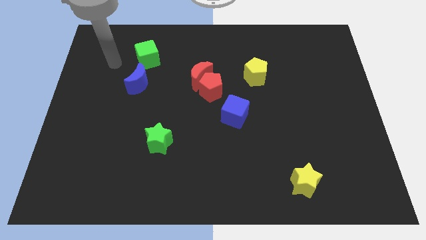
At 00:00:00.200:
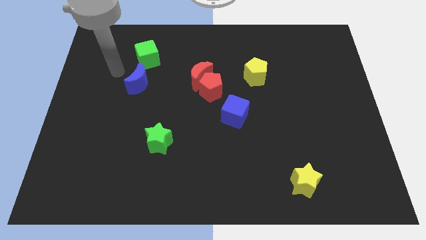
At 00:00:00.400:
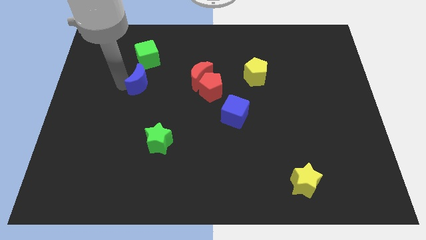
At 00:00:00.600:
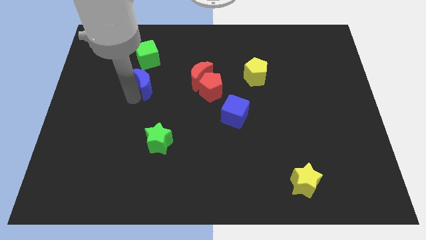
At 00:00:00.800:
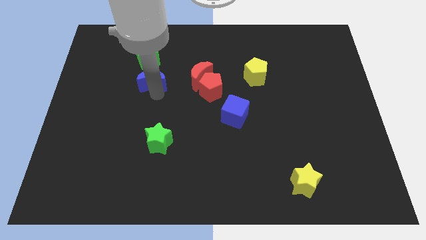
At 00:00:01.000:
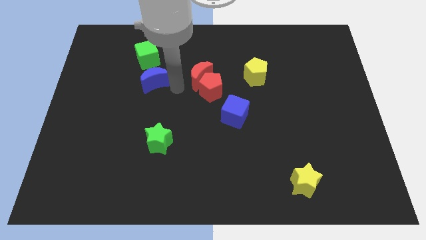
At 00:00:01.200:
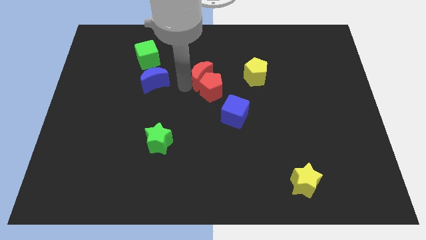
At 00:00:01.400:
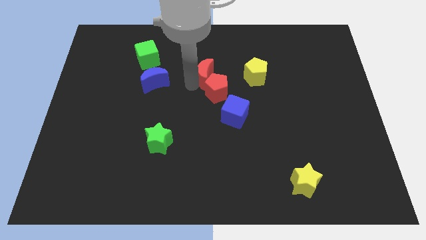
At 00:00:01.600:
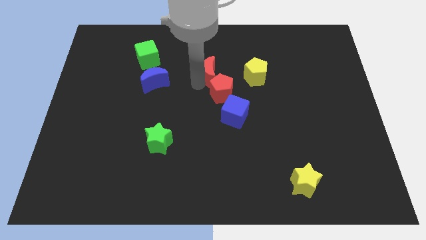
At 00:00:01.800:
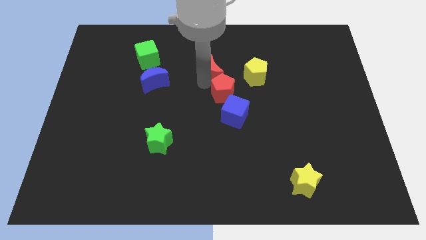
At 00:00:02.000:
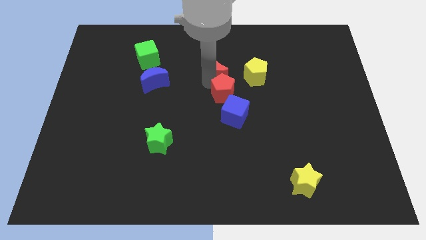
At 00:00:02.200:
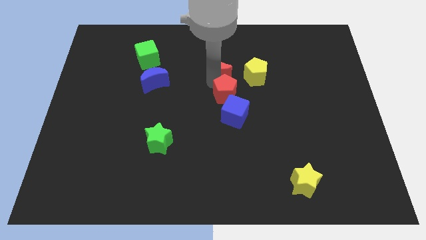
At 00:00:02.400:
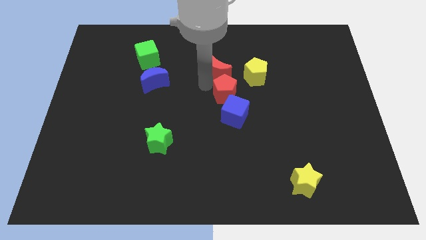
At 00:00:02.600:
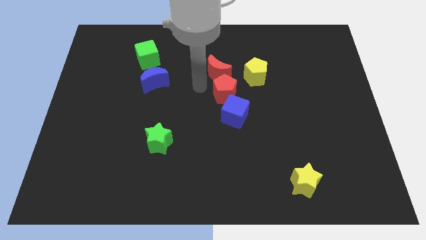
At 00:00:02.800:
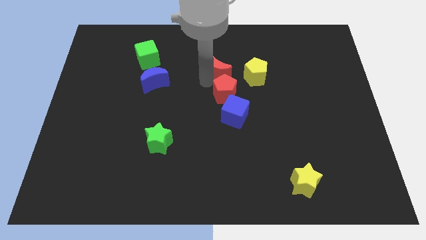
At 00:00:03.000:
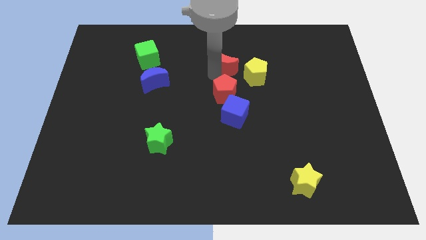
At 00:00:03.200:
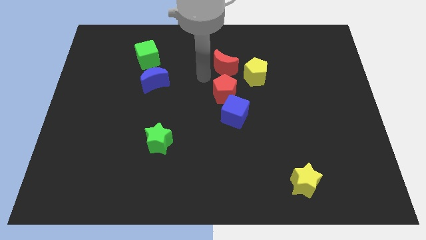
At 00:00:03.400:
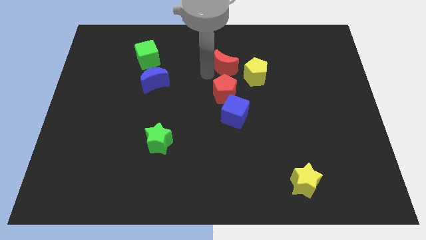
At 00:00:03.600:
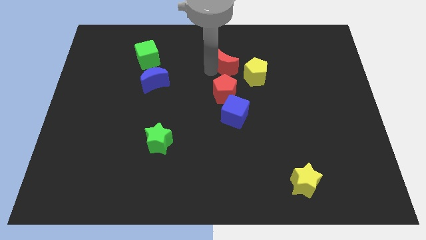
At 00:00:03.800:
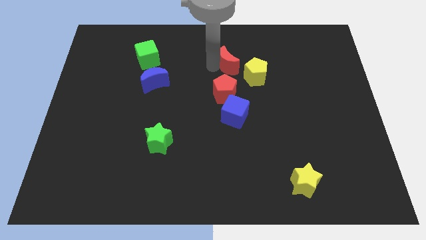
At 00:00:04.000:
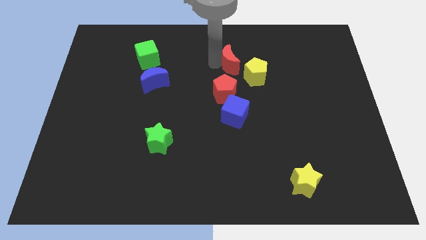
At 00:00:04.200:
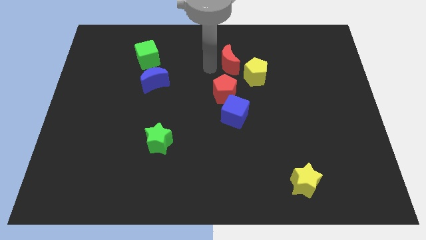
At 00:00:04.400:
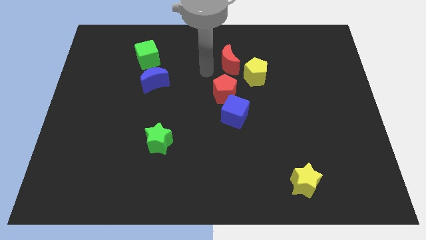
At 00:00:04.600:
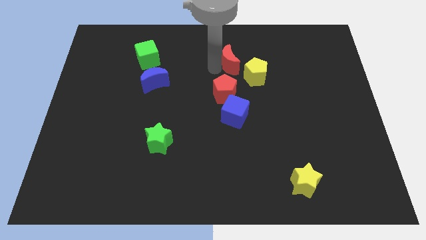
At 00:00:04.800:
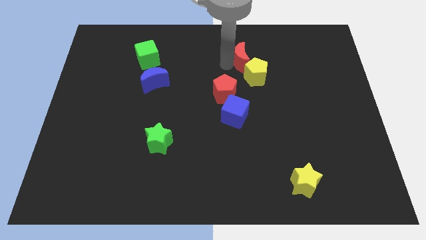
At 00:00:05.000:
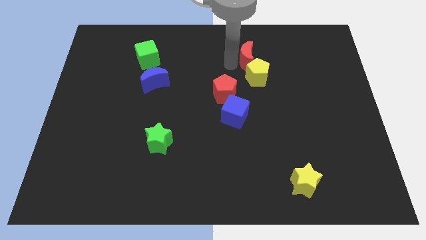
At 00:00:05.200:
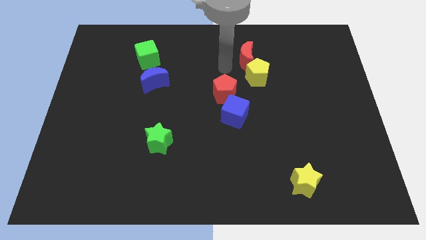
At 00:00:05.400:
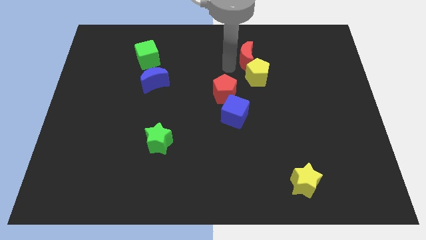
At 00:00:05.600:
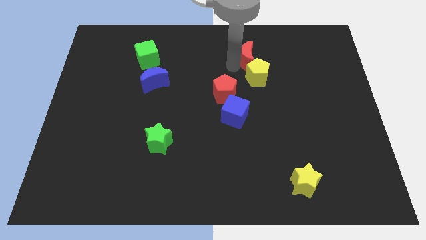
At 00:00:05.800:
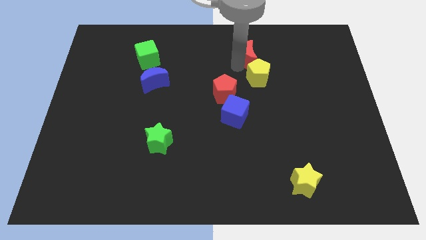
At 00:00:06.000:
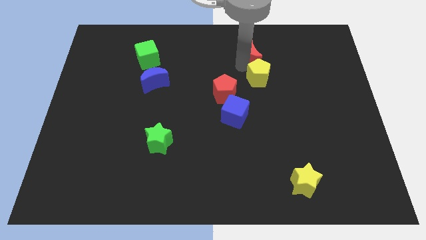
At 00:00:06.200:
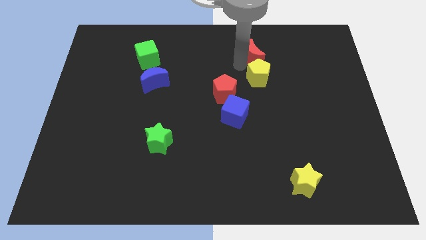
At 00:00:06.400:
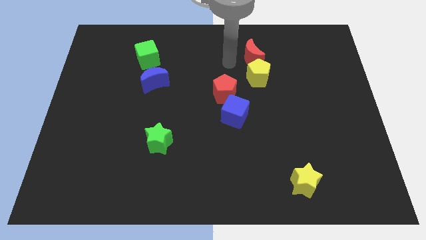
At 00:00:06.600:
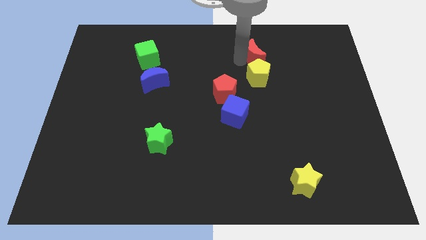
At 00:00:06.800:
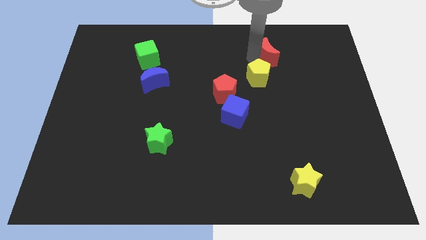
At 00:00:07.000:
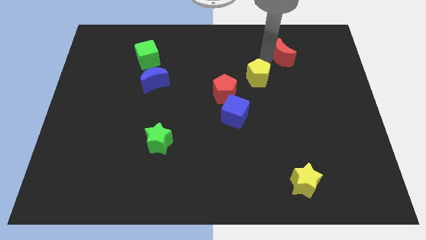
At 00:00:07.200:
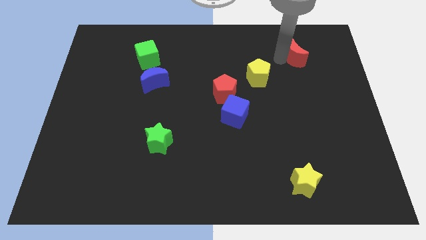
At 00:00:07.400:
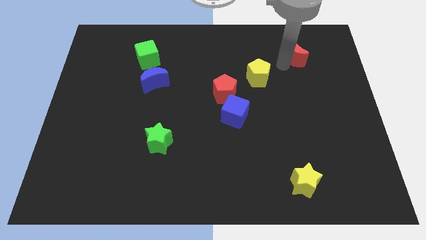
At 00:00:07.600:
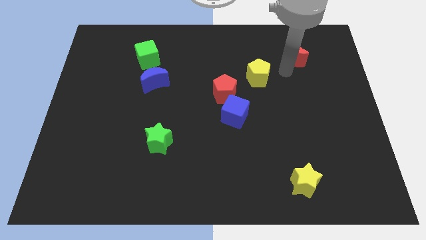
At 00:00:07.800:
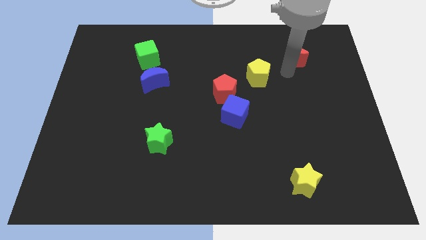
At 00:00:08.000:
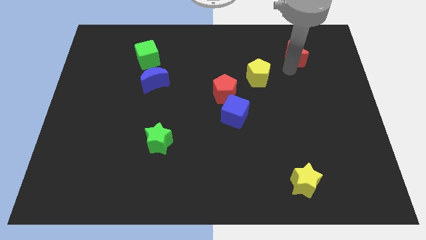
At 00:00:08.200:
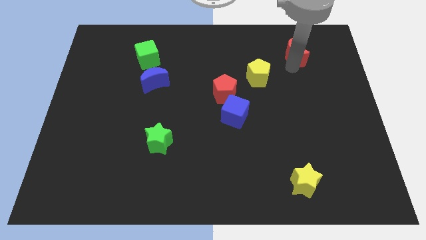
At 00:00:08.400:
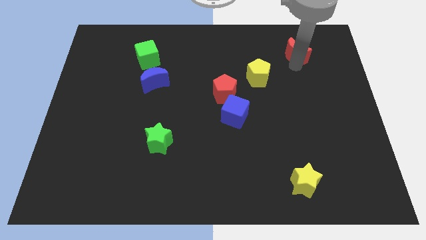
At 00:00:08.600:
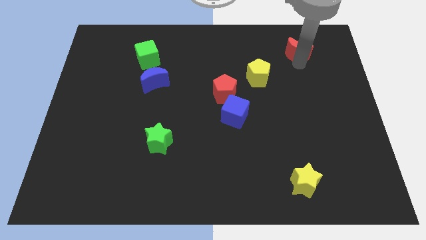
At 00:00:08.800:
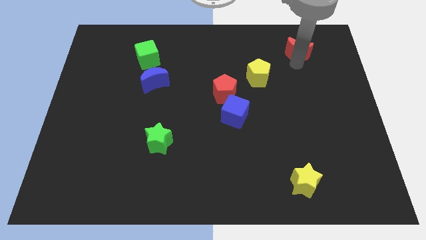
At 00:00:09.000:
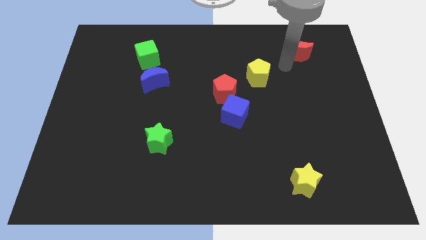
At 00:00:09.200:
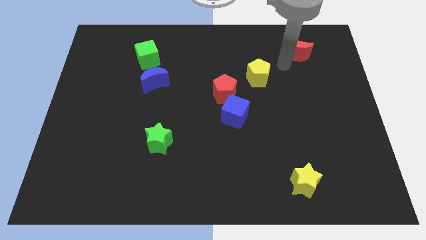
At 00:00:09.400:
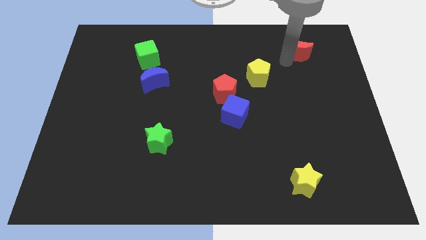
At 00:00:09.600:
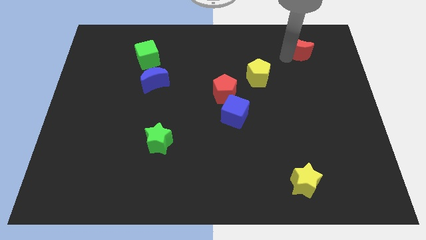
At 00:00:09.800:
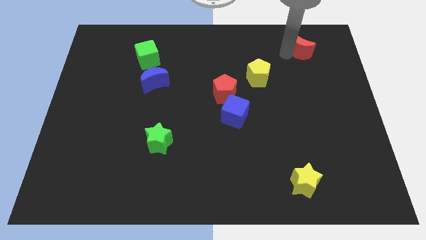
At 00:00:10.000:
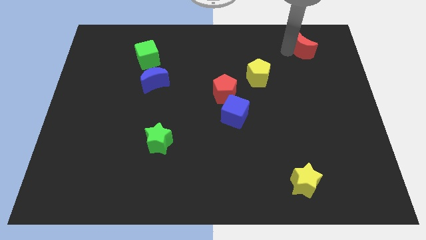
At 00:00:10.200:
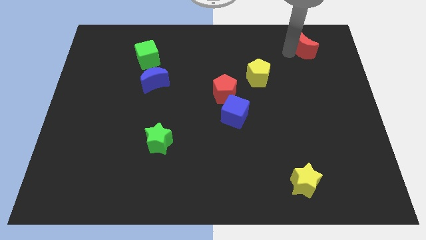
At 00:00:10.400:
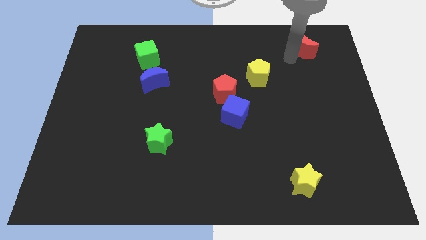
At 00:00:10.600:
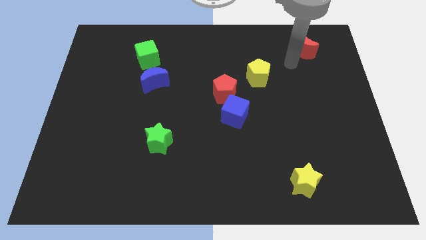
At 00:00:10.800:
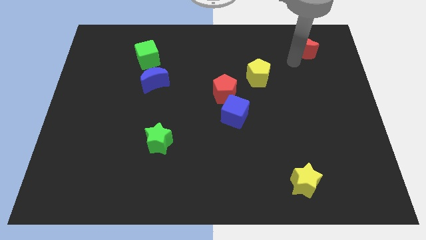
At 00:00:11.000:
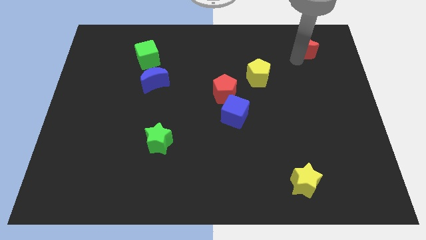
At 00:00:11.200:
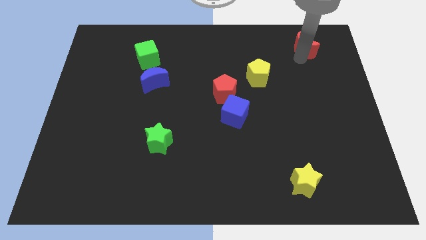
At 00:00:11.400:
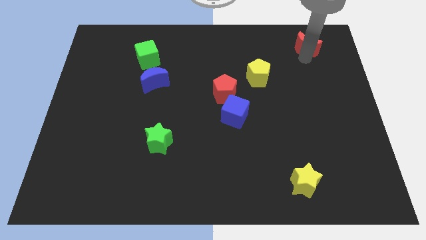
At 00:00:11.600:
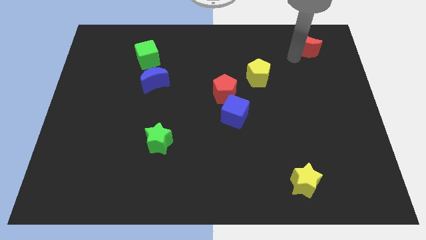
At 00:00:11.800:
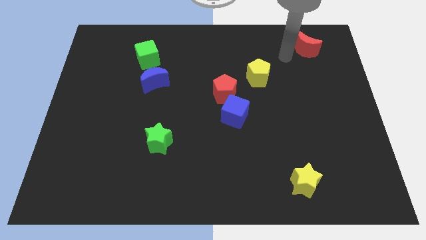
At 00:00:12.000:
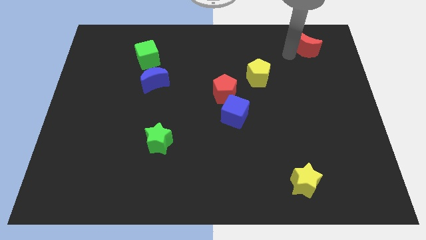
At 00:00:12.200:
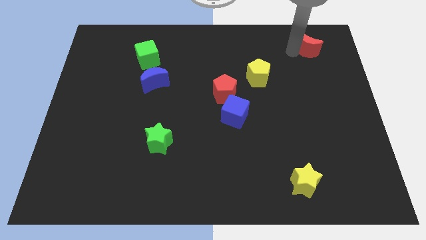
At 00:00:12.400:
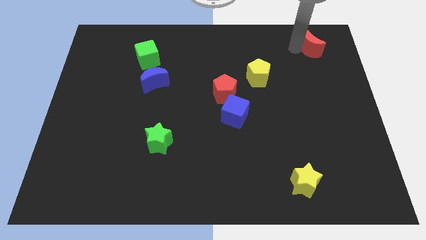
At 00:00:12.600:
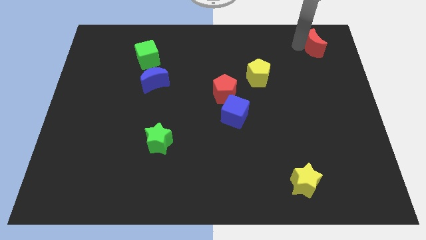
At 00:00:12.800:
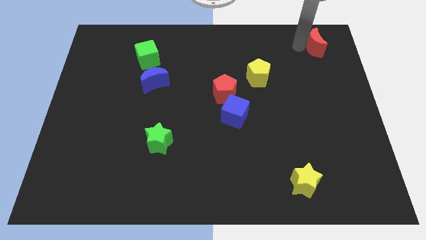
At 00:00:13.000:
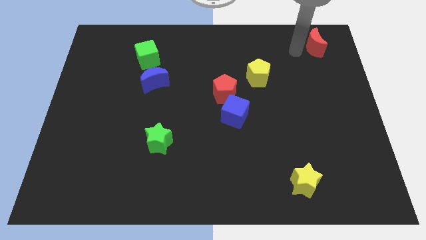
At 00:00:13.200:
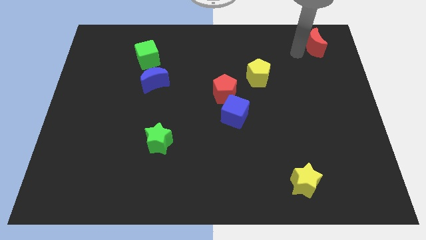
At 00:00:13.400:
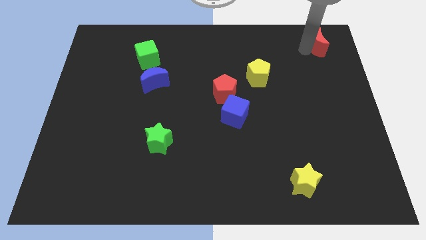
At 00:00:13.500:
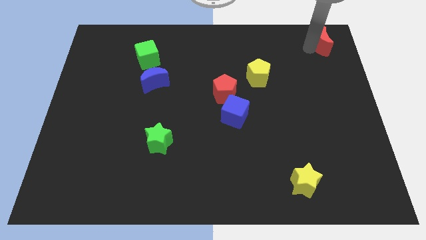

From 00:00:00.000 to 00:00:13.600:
move the red moon to the upper right corner
